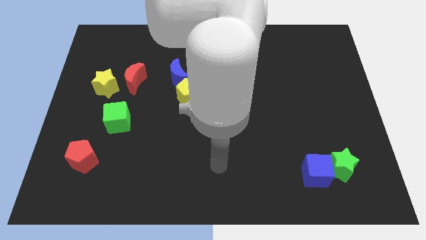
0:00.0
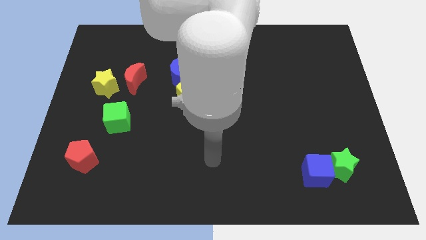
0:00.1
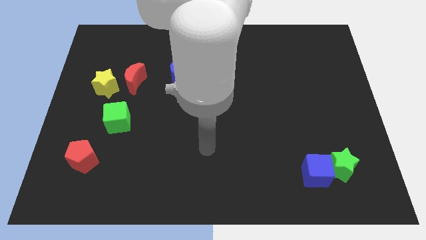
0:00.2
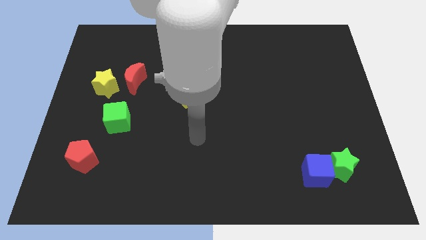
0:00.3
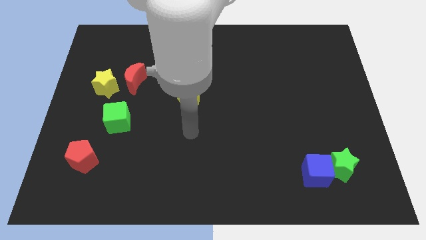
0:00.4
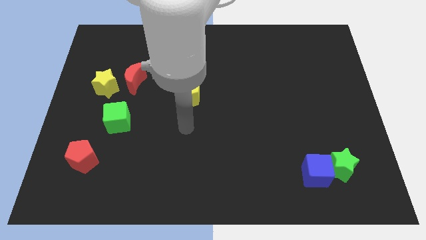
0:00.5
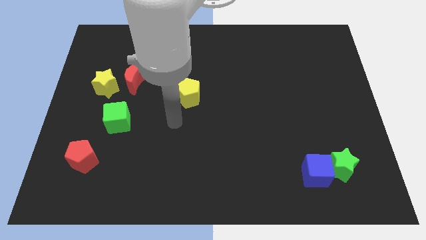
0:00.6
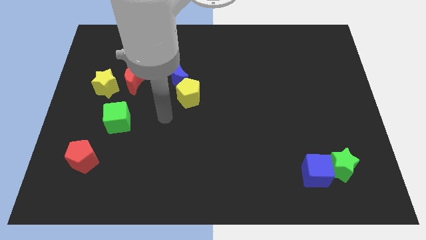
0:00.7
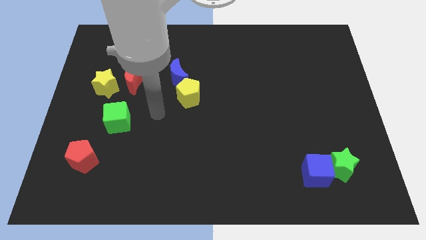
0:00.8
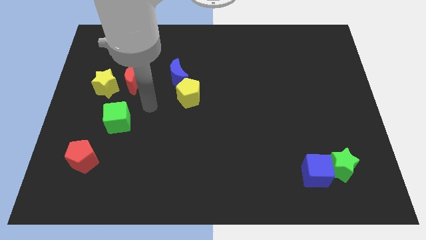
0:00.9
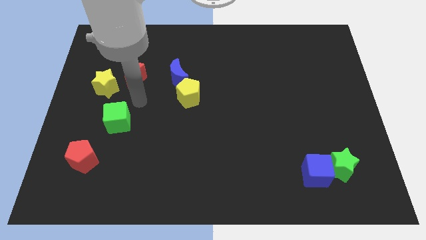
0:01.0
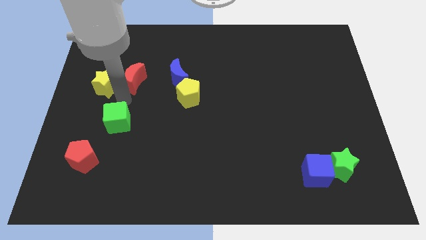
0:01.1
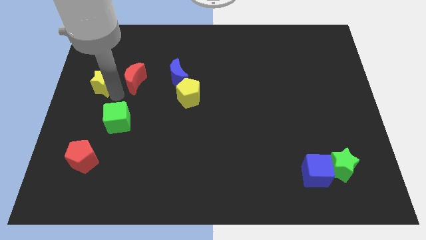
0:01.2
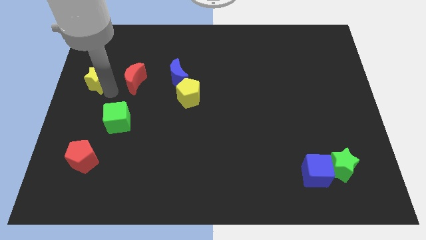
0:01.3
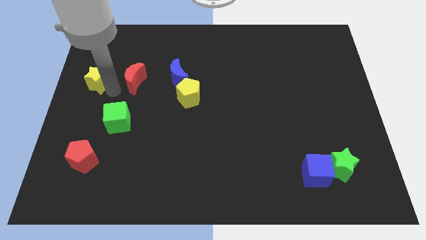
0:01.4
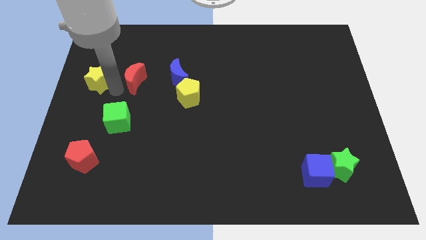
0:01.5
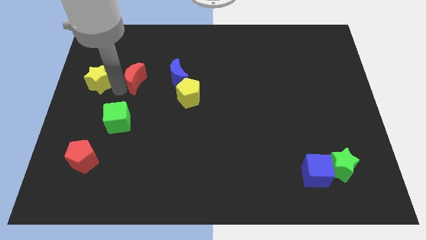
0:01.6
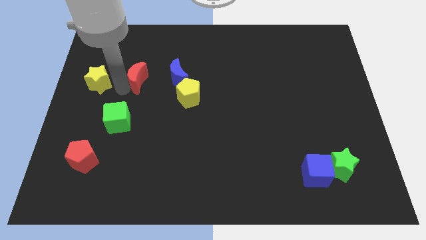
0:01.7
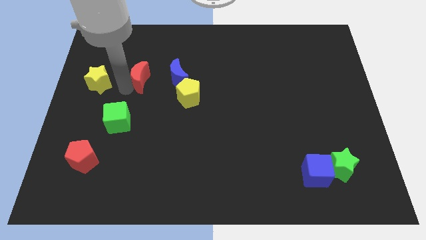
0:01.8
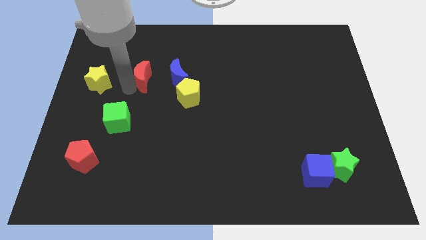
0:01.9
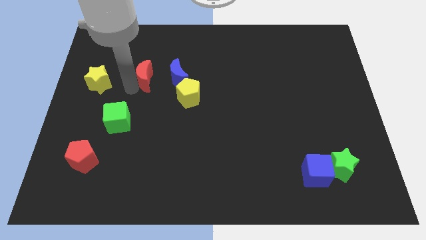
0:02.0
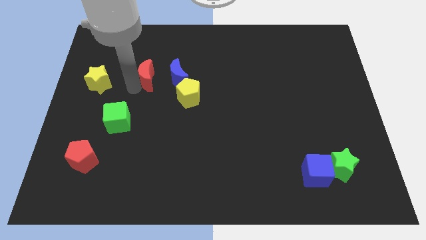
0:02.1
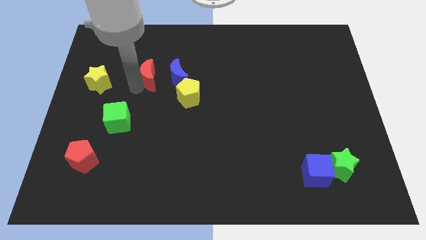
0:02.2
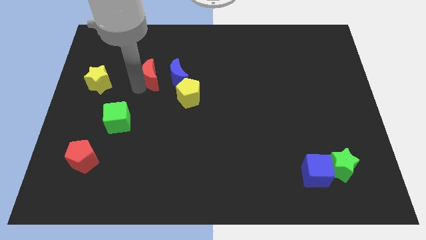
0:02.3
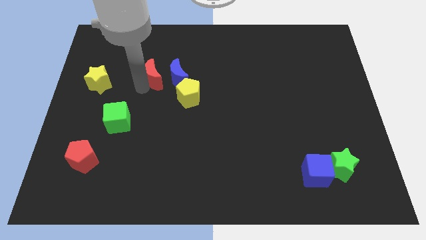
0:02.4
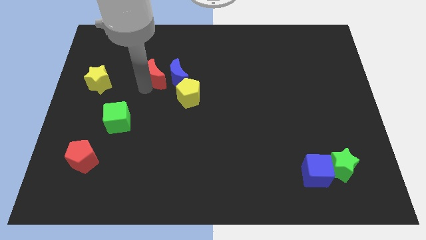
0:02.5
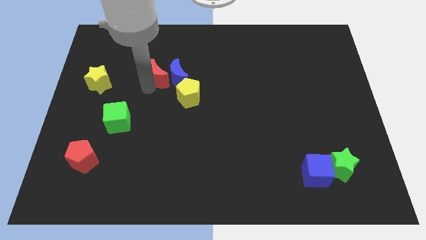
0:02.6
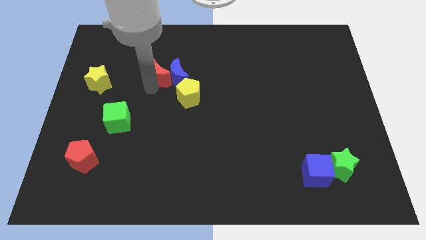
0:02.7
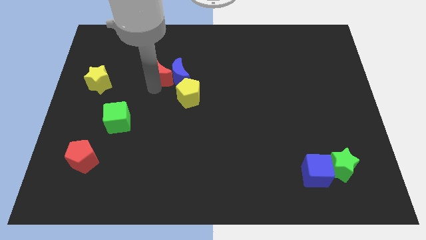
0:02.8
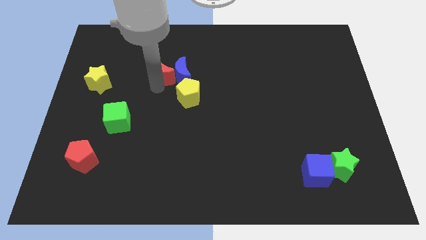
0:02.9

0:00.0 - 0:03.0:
slightly slide the red moon right

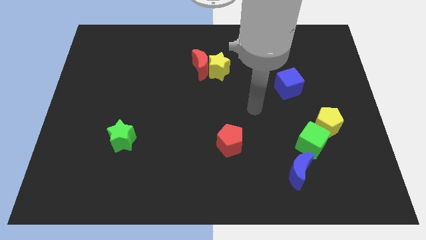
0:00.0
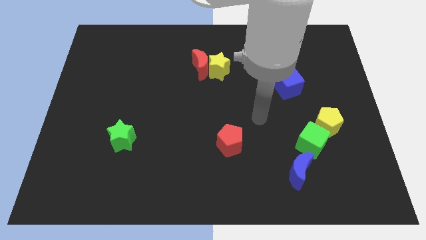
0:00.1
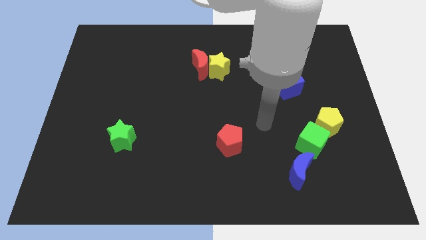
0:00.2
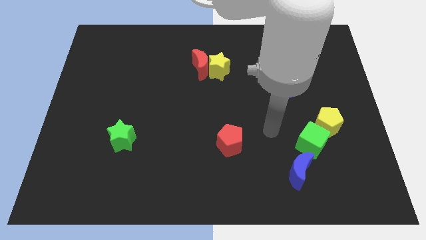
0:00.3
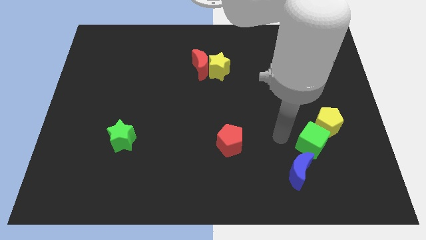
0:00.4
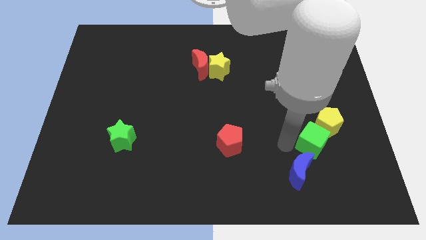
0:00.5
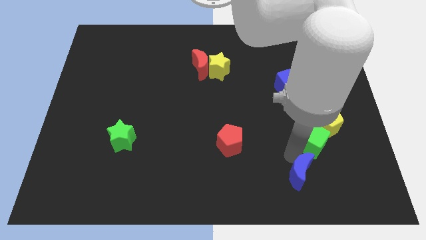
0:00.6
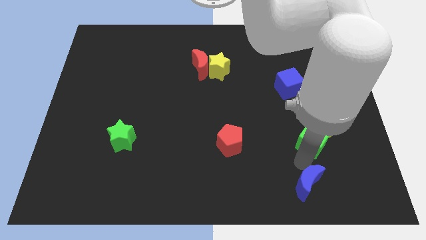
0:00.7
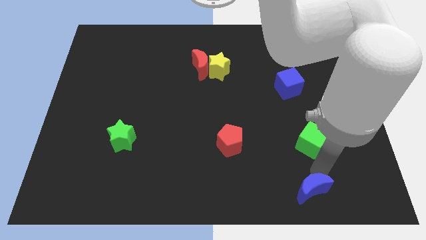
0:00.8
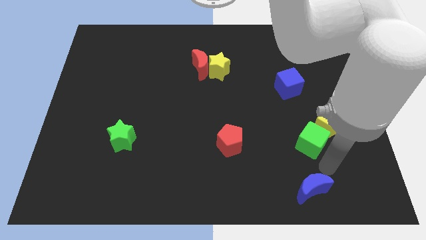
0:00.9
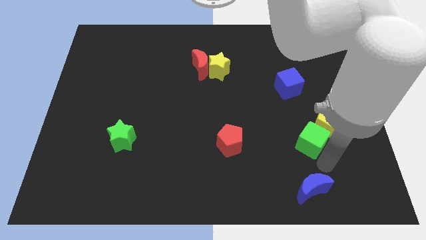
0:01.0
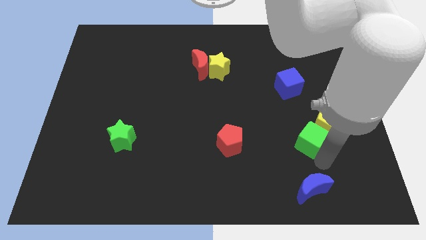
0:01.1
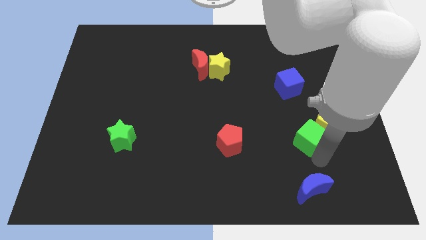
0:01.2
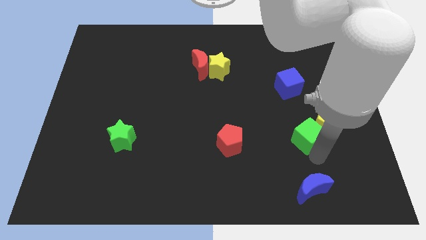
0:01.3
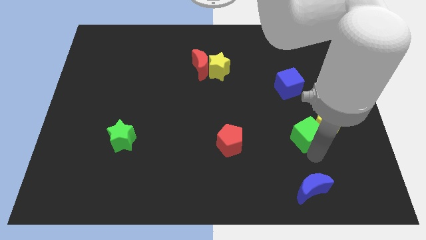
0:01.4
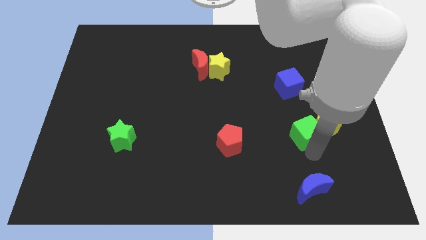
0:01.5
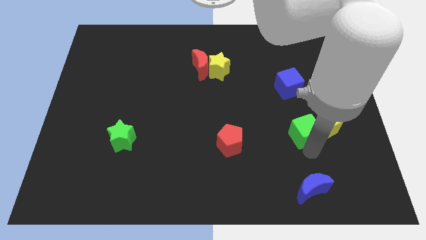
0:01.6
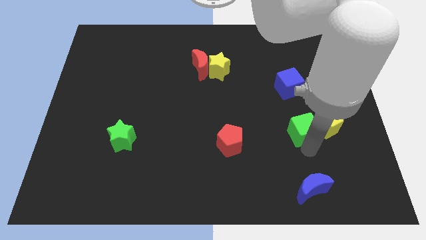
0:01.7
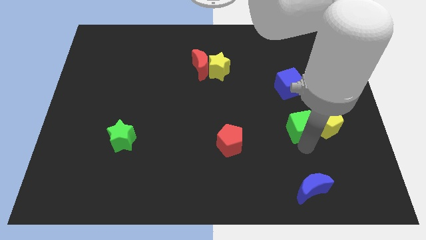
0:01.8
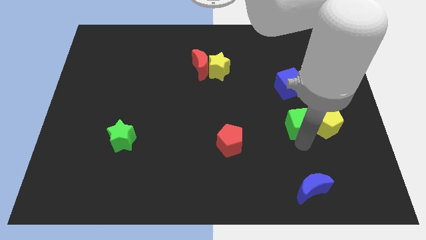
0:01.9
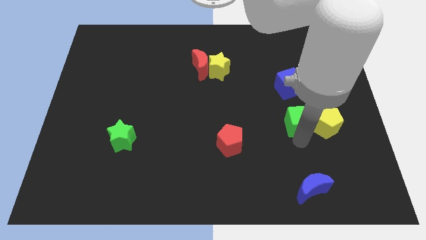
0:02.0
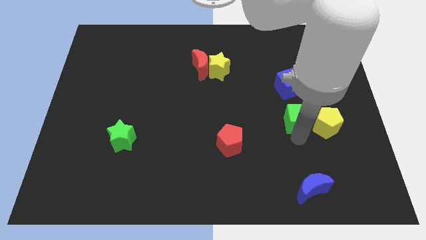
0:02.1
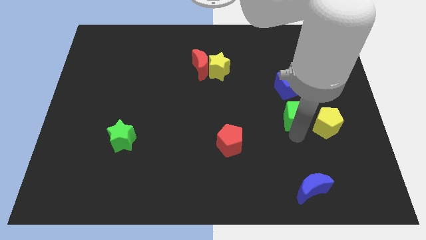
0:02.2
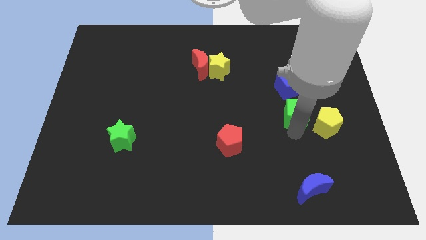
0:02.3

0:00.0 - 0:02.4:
slide the green cube somewhat upwards

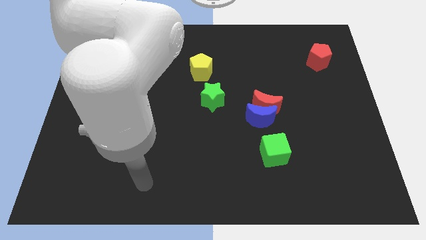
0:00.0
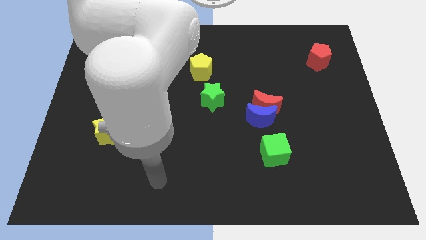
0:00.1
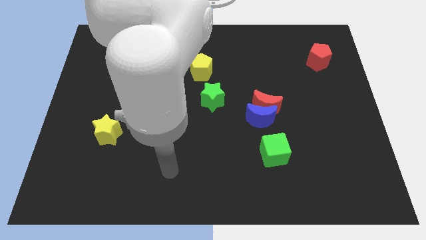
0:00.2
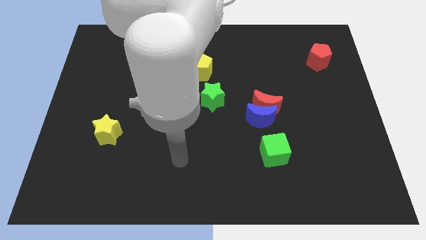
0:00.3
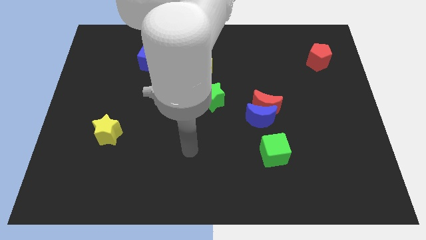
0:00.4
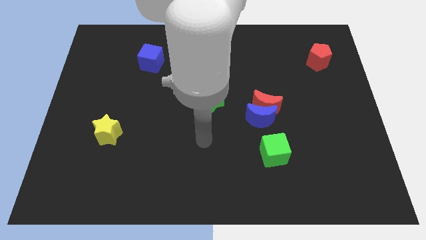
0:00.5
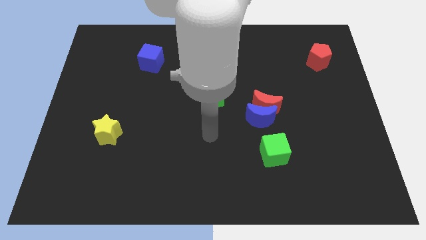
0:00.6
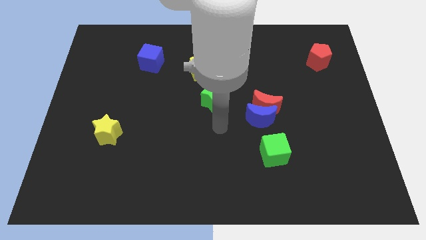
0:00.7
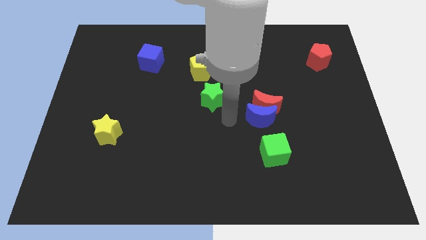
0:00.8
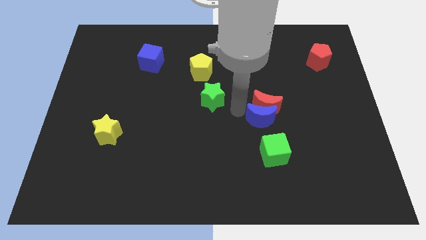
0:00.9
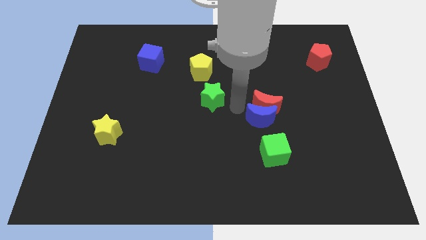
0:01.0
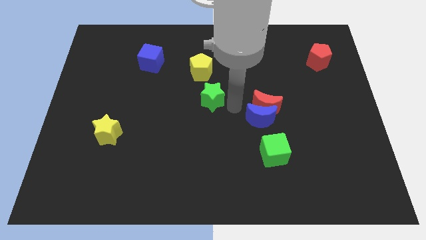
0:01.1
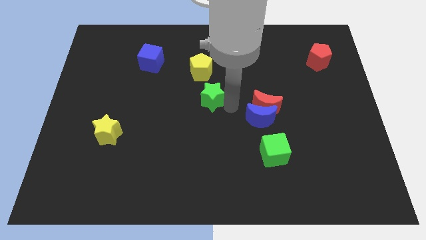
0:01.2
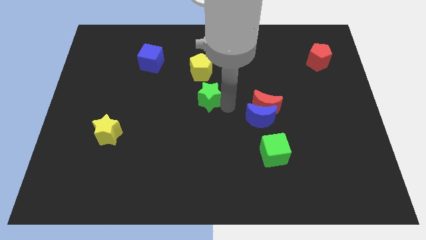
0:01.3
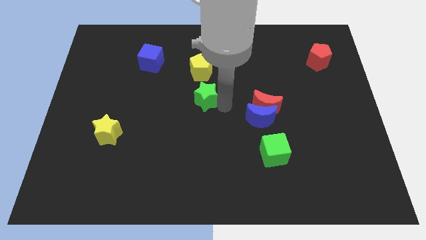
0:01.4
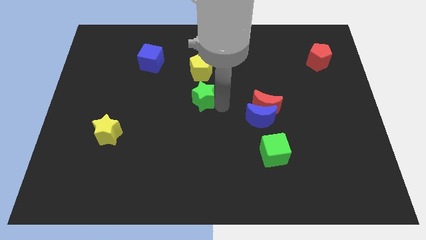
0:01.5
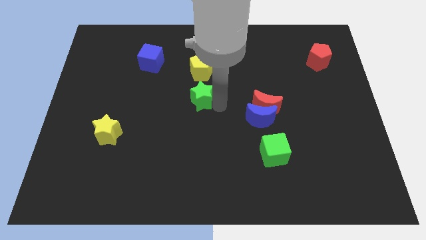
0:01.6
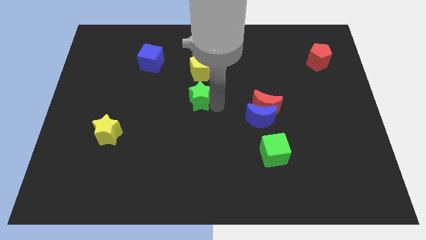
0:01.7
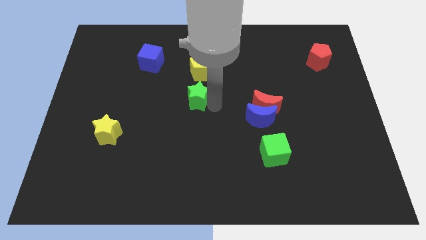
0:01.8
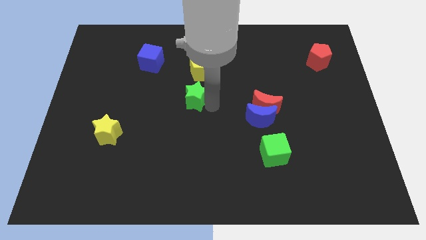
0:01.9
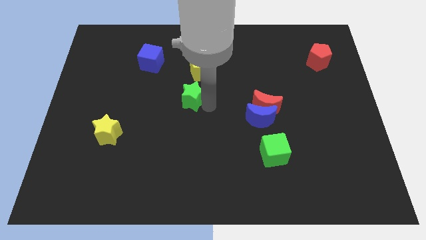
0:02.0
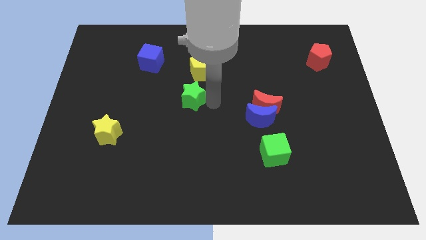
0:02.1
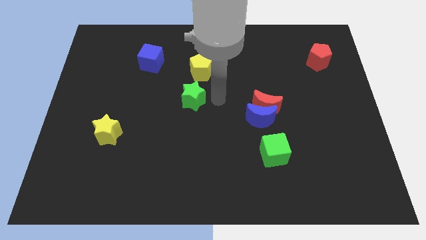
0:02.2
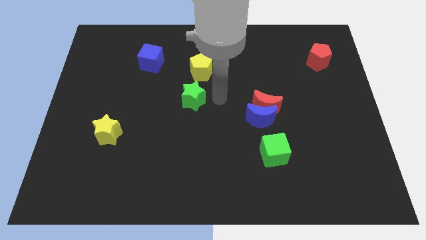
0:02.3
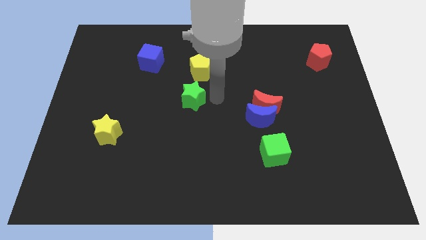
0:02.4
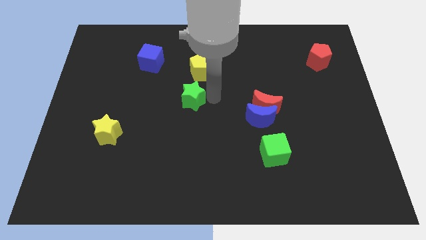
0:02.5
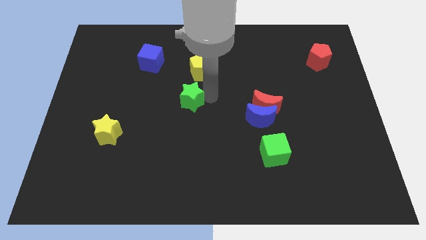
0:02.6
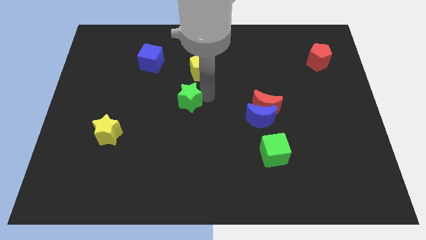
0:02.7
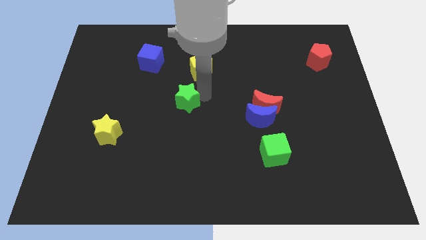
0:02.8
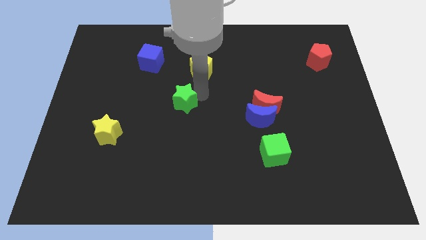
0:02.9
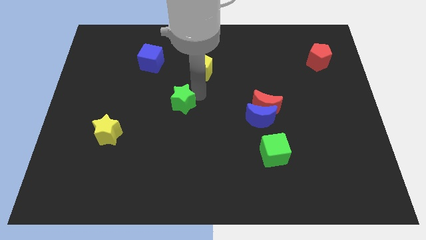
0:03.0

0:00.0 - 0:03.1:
slightly move the green star left
